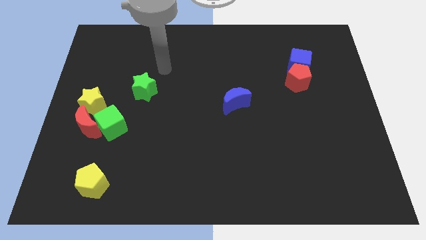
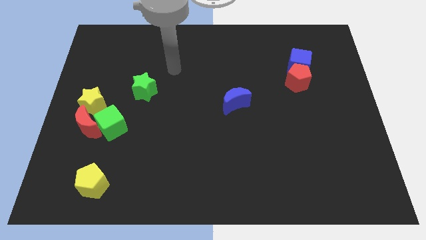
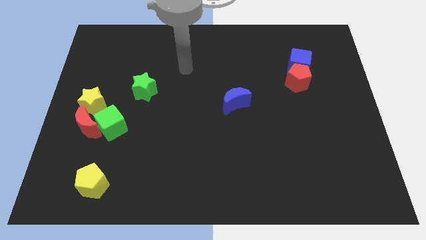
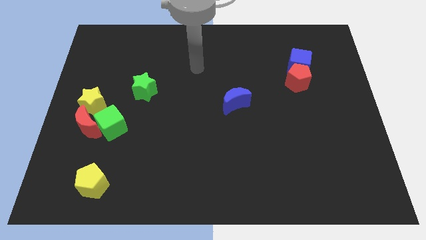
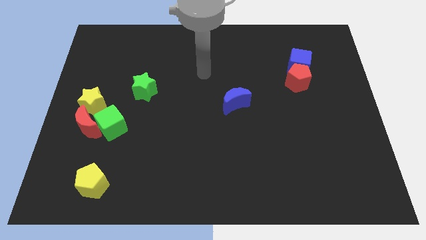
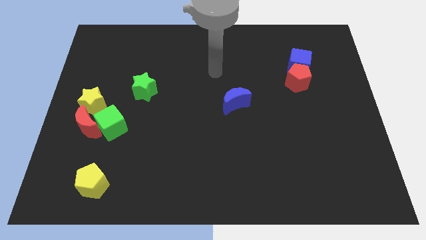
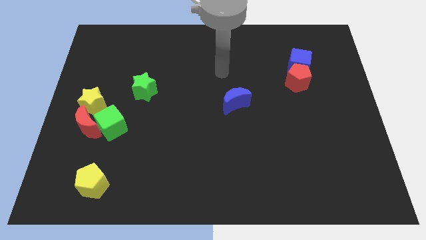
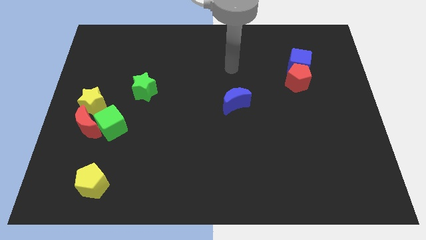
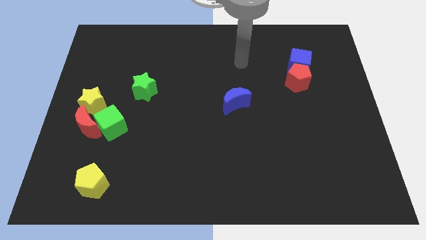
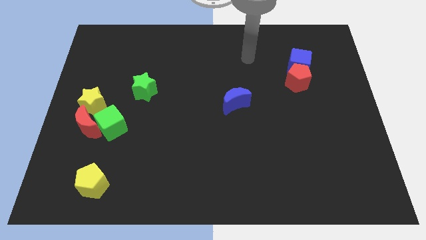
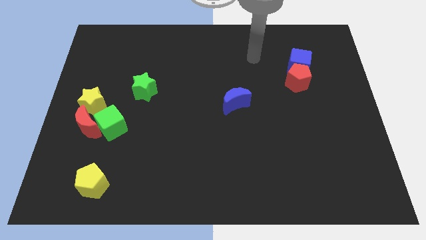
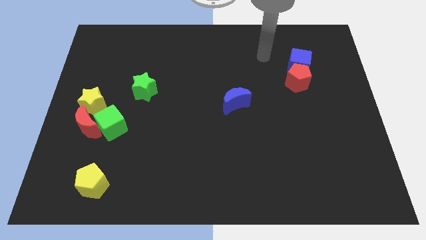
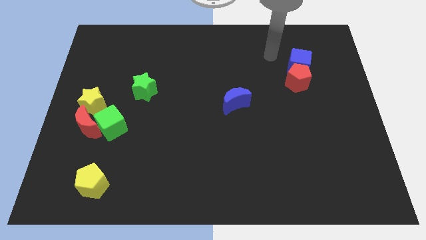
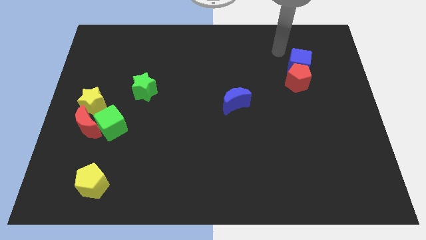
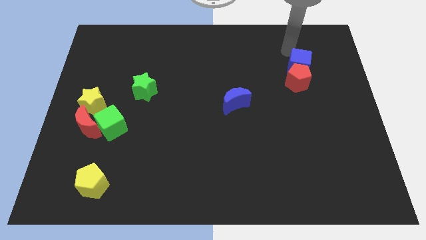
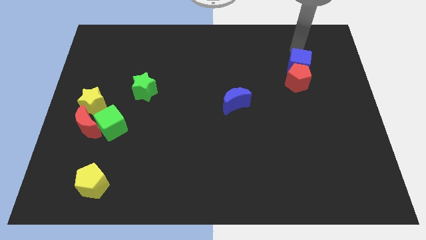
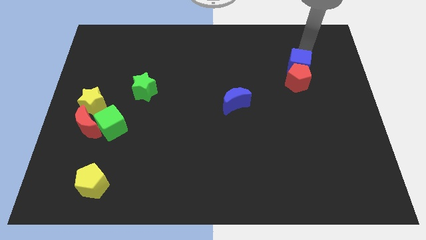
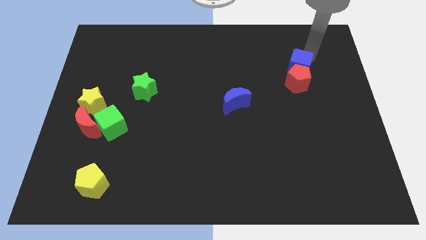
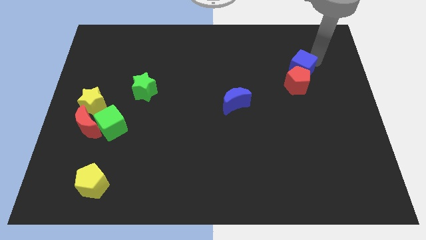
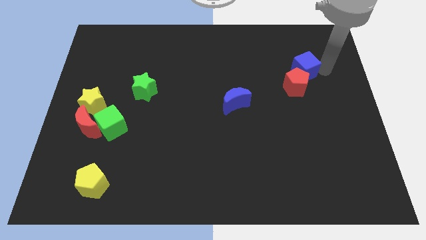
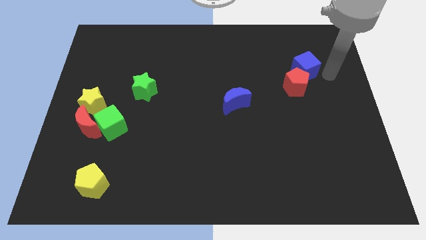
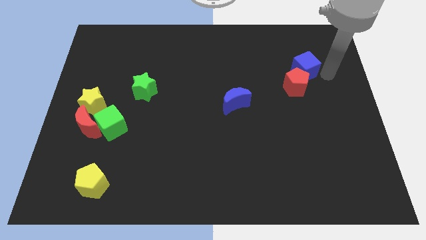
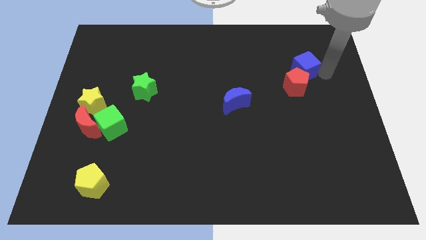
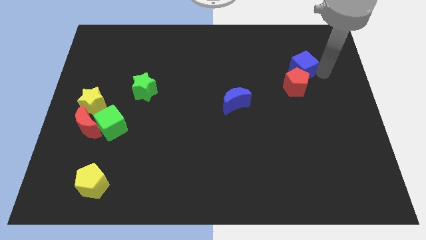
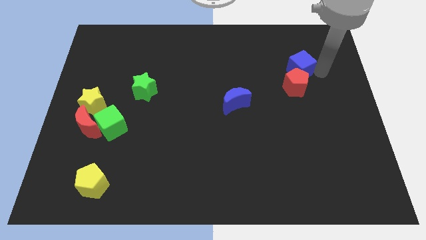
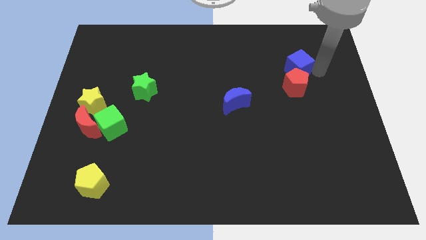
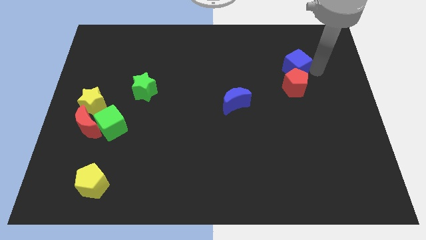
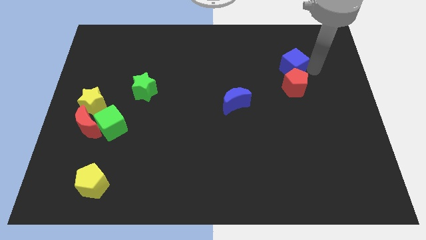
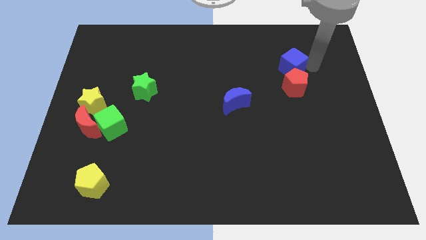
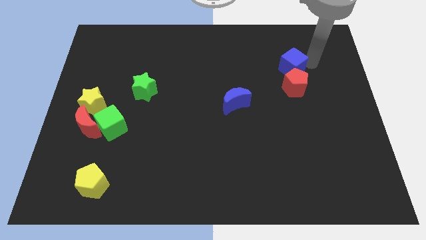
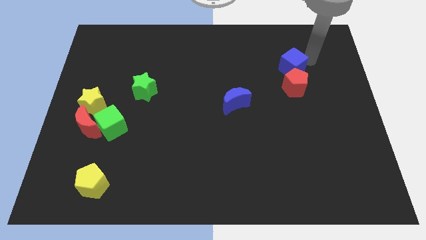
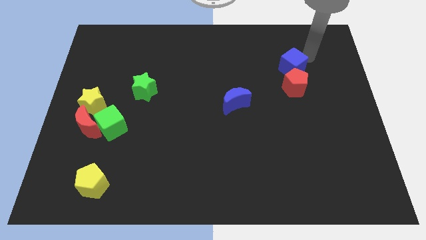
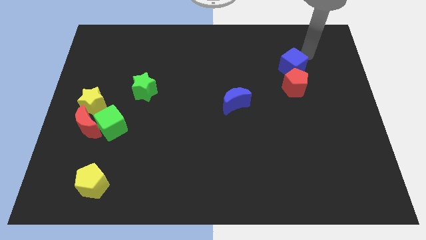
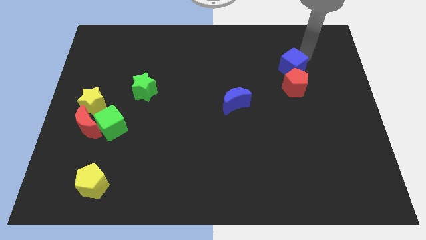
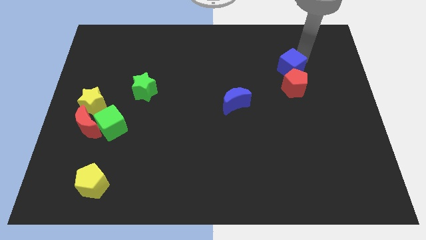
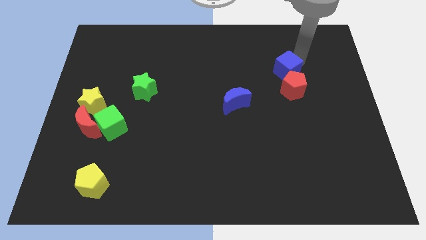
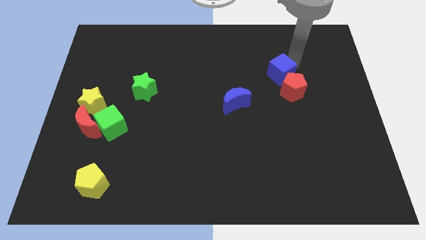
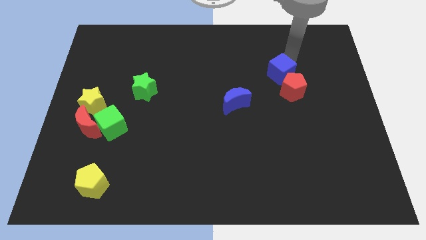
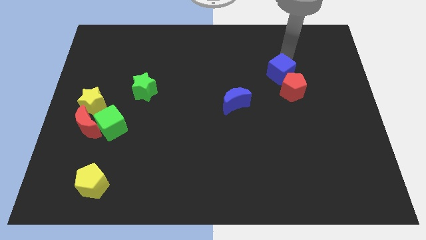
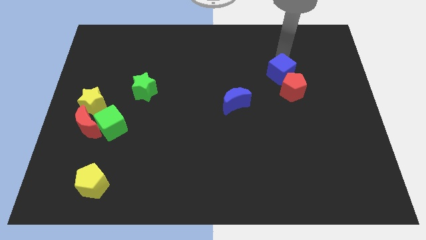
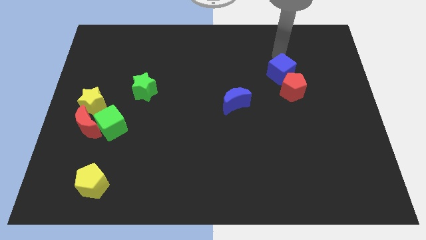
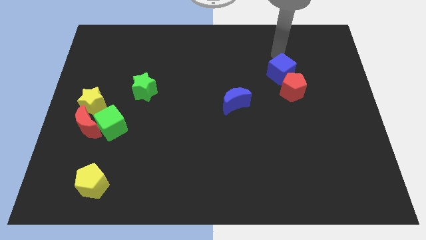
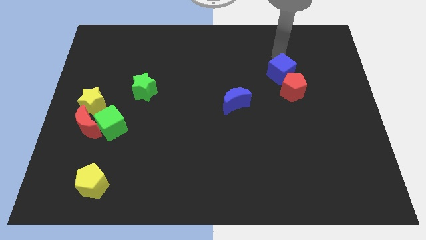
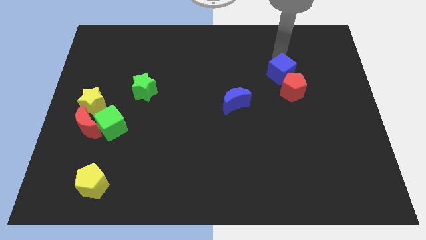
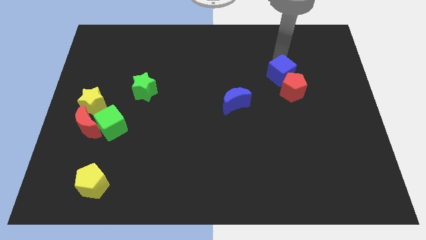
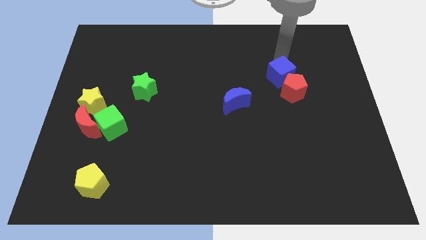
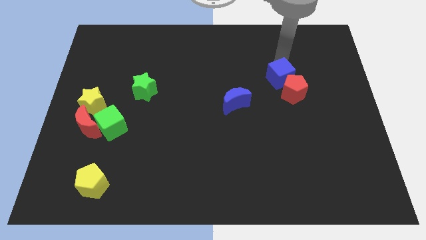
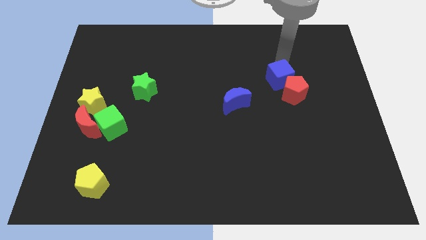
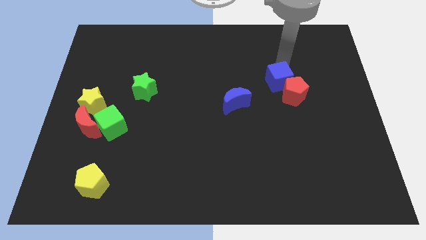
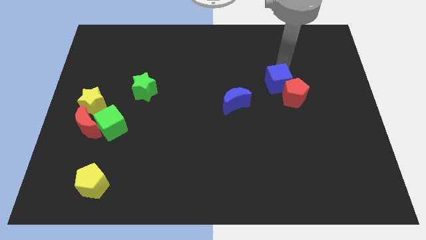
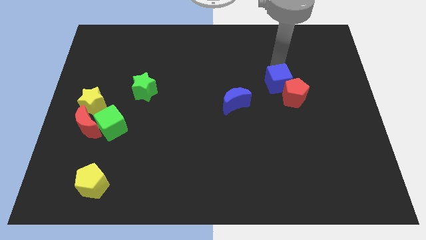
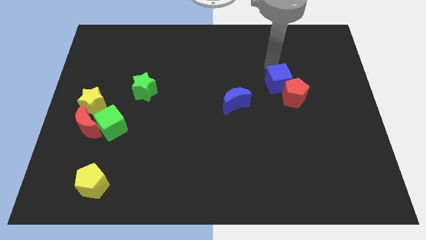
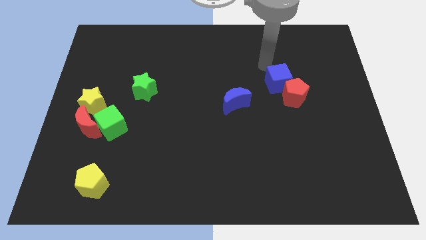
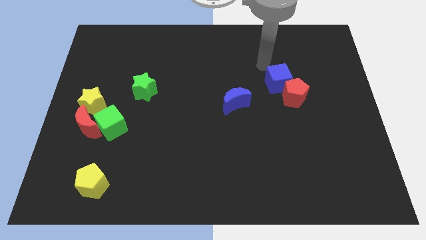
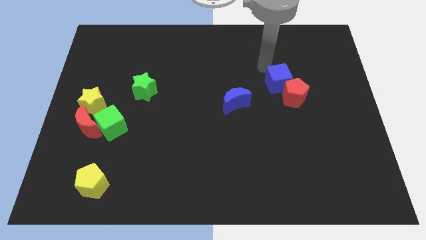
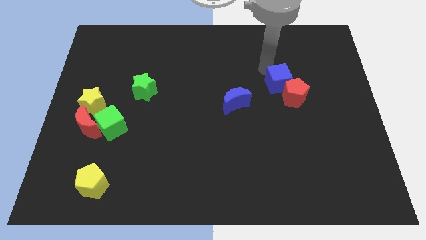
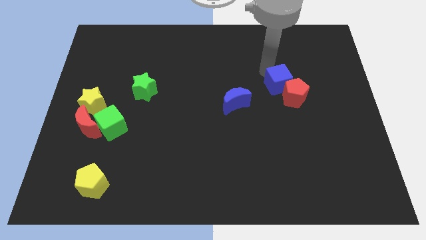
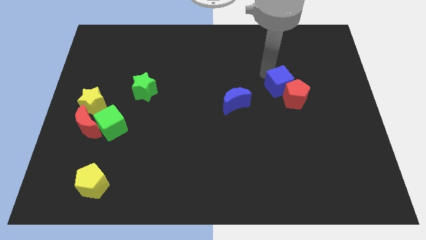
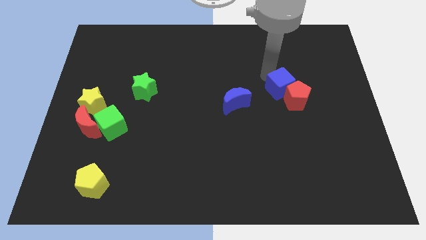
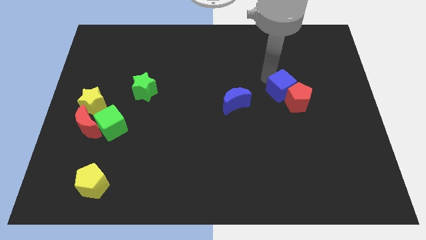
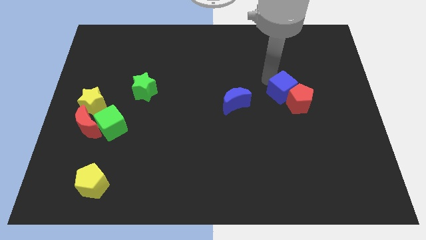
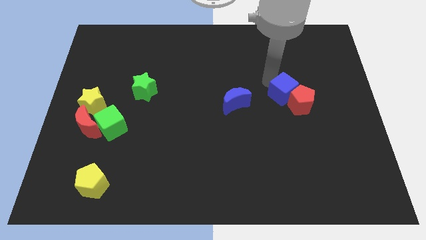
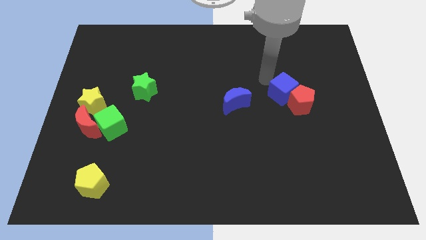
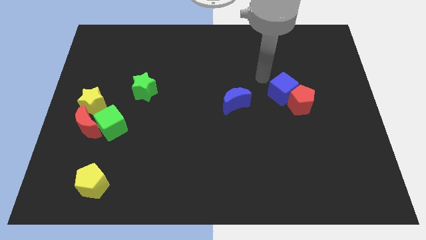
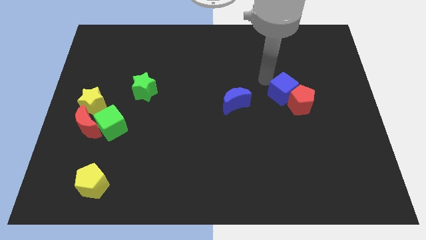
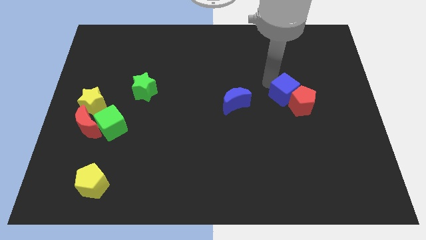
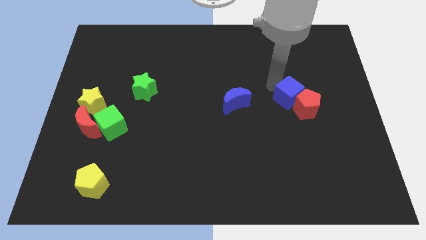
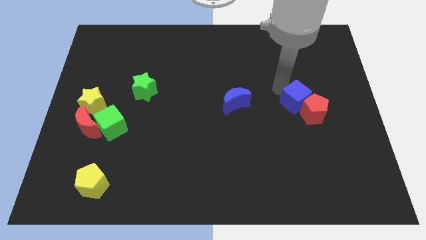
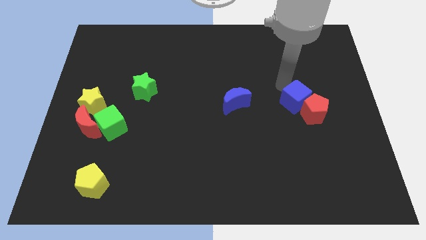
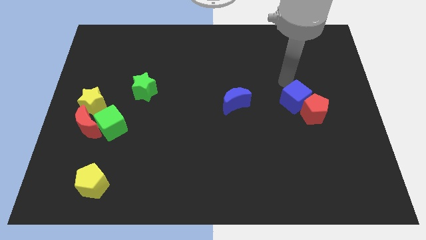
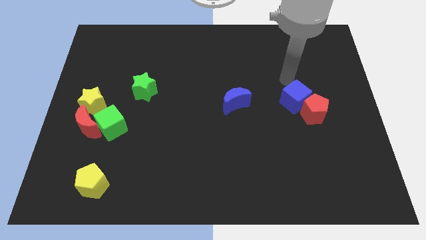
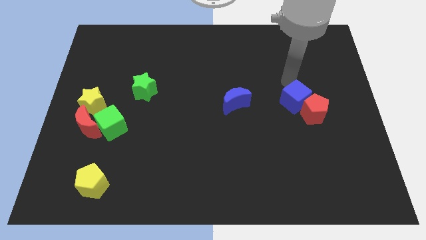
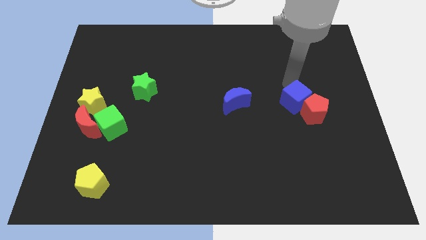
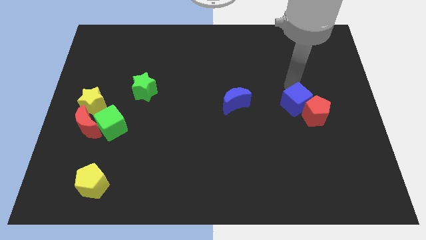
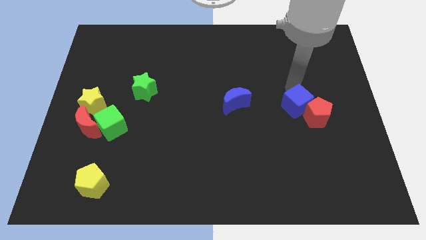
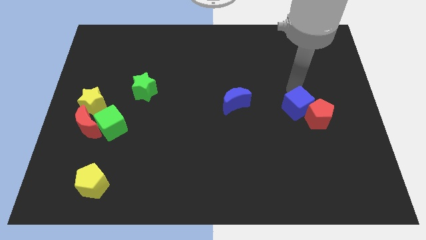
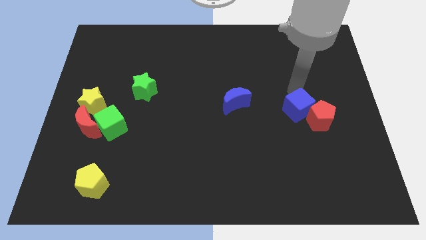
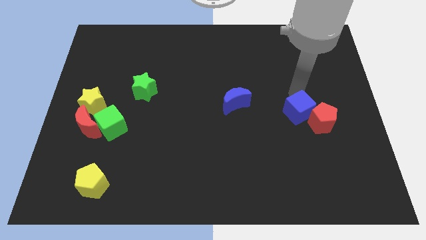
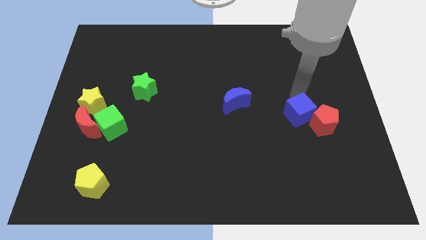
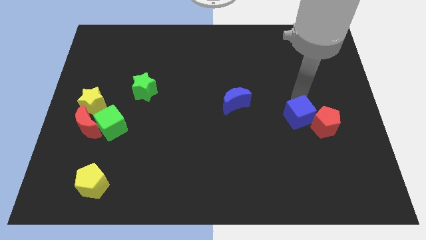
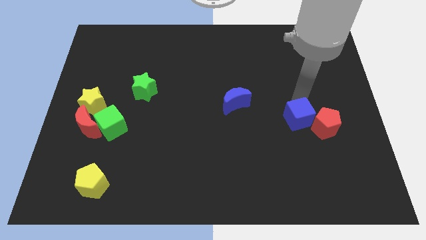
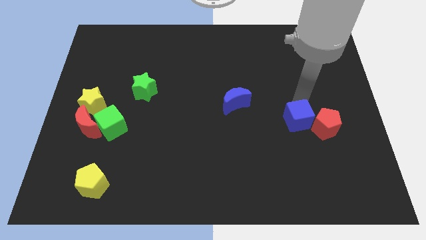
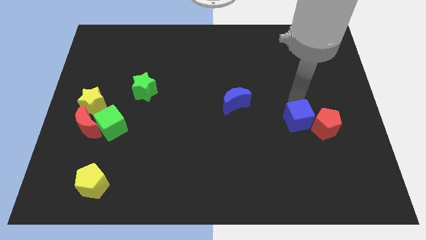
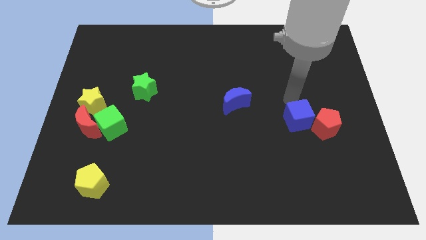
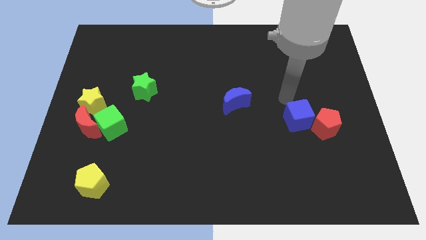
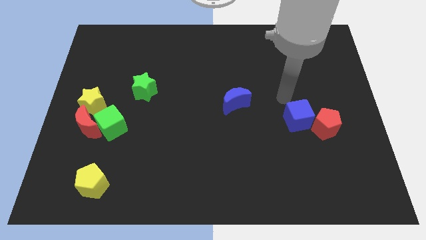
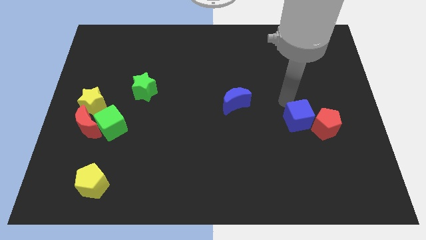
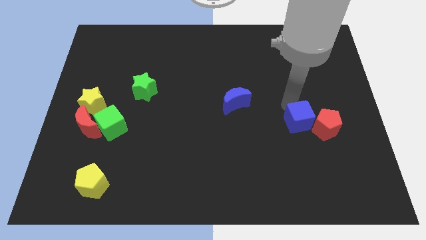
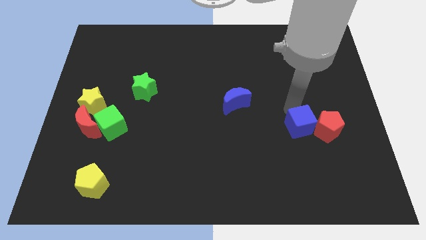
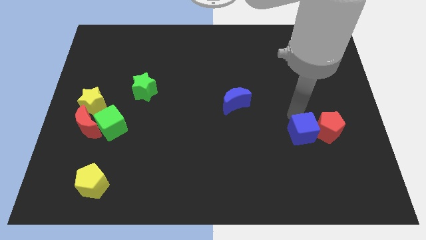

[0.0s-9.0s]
move the blue cube down
